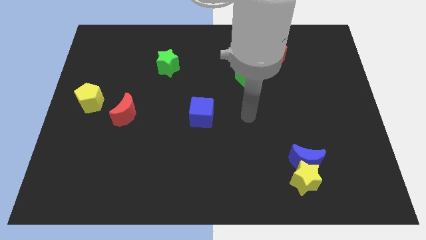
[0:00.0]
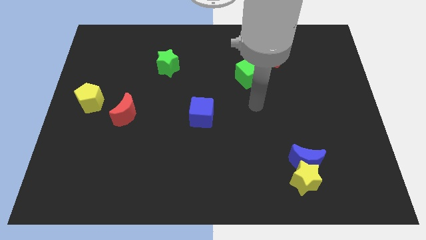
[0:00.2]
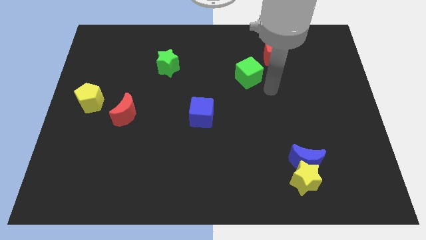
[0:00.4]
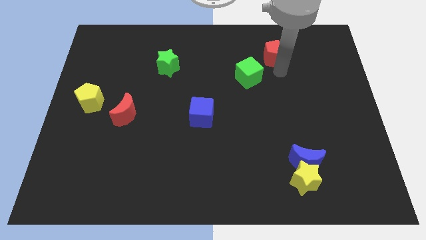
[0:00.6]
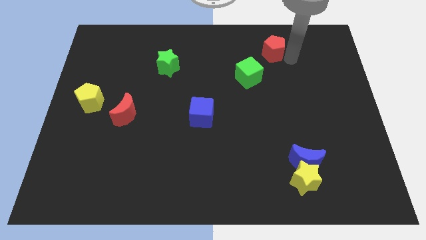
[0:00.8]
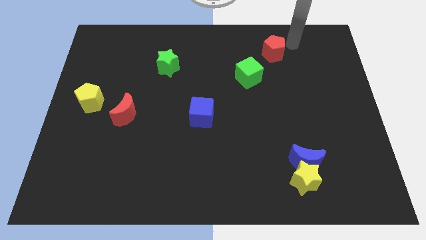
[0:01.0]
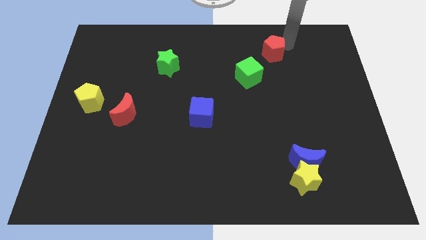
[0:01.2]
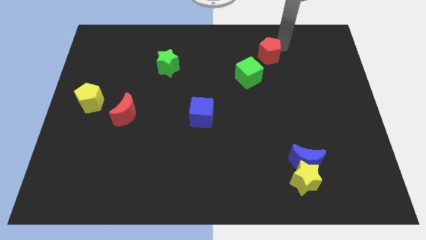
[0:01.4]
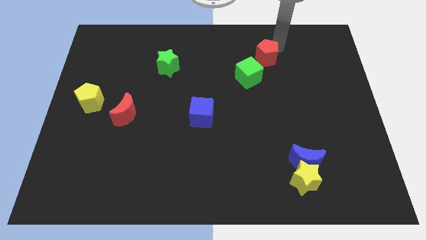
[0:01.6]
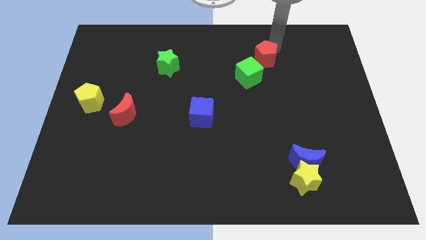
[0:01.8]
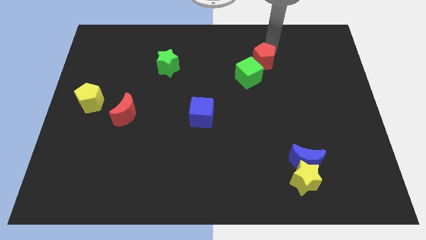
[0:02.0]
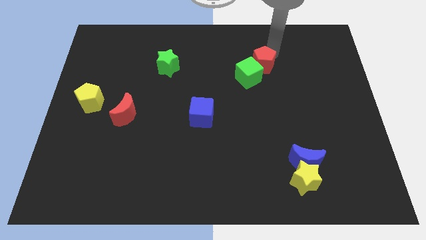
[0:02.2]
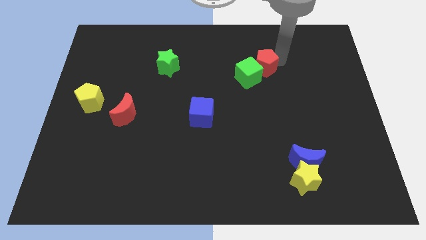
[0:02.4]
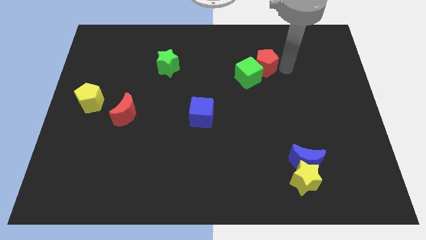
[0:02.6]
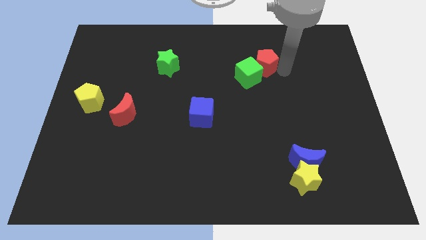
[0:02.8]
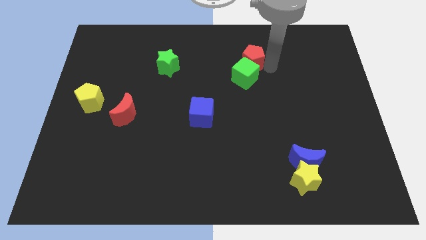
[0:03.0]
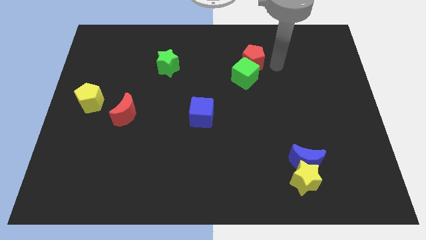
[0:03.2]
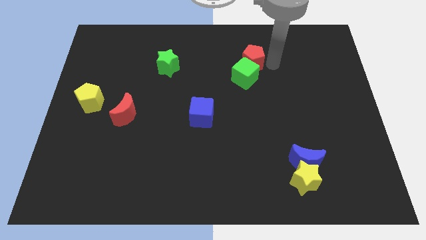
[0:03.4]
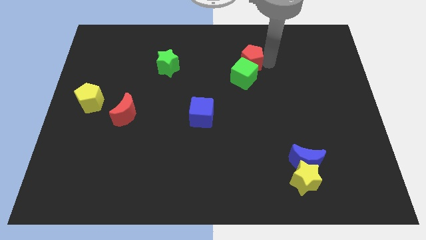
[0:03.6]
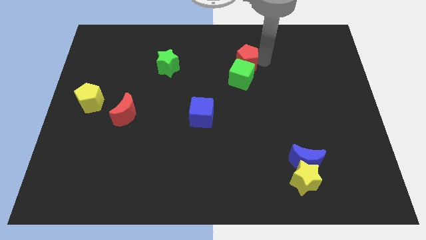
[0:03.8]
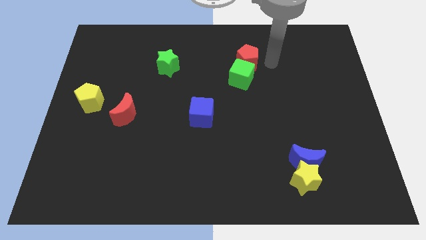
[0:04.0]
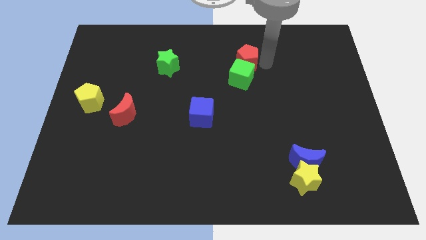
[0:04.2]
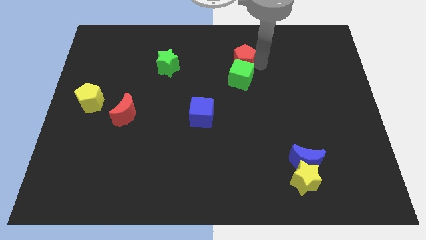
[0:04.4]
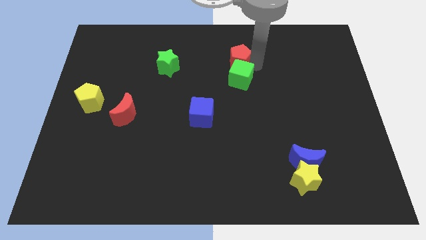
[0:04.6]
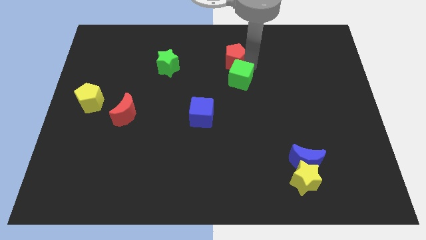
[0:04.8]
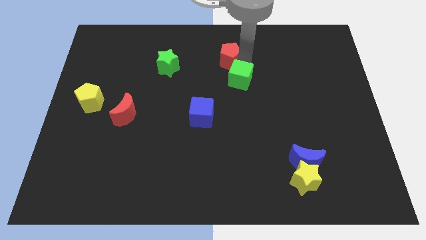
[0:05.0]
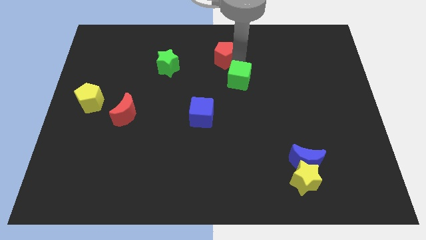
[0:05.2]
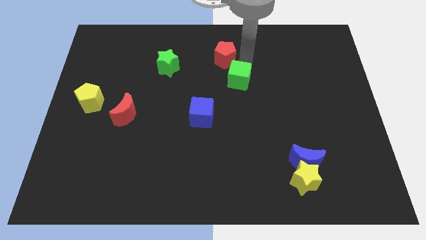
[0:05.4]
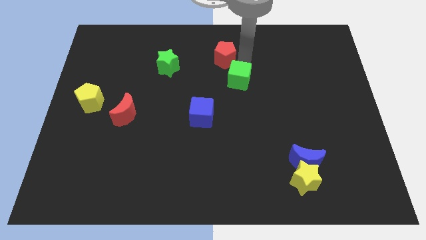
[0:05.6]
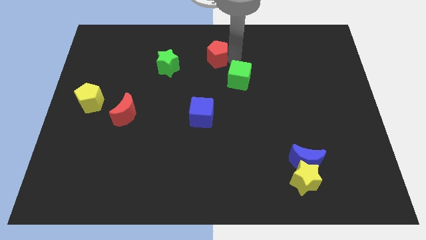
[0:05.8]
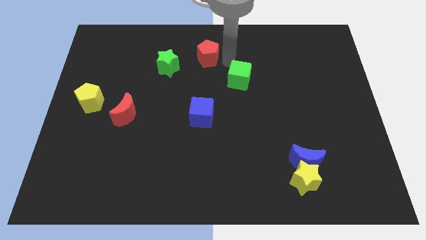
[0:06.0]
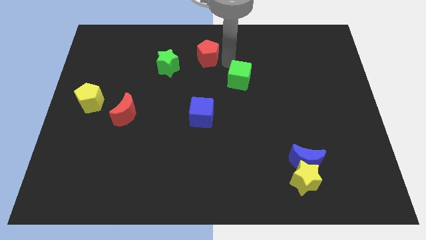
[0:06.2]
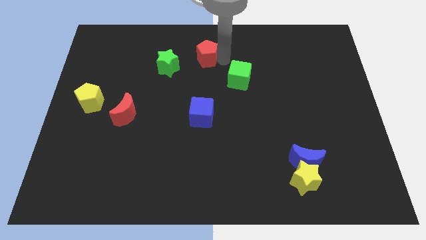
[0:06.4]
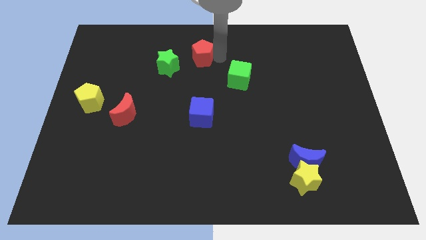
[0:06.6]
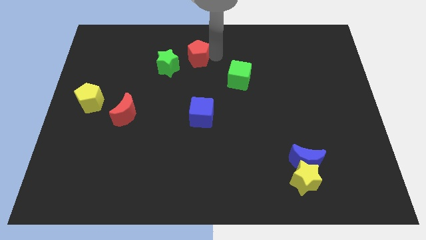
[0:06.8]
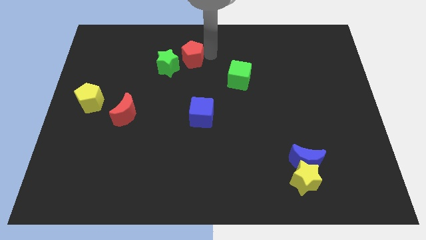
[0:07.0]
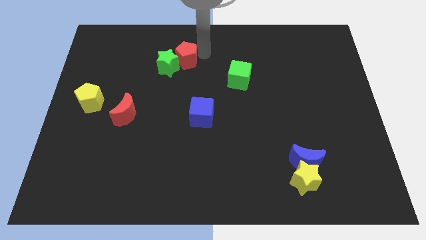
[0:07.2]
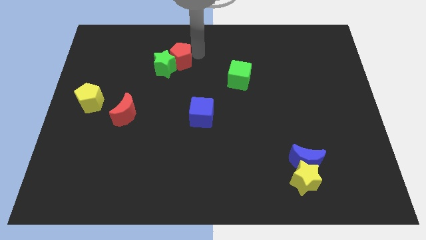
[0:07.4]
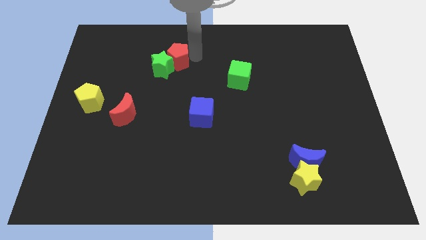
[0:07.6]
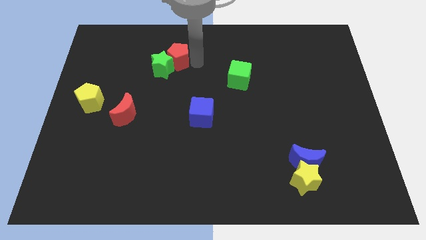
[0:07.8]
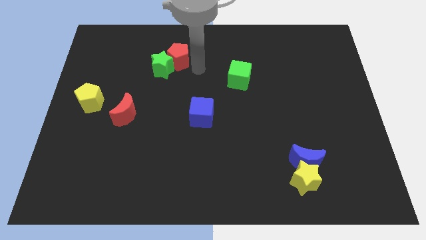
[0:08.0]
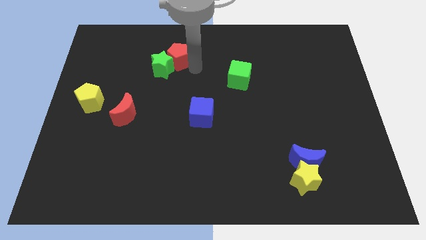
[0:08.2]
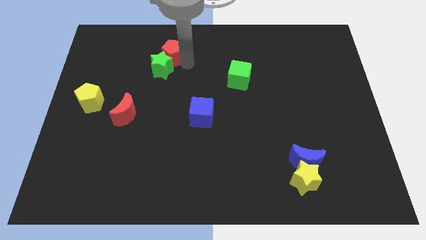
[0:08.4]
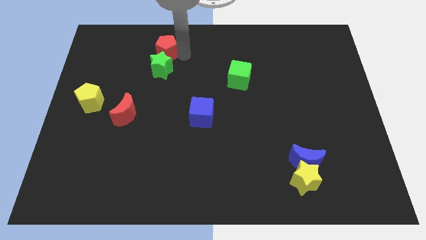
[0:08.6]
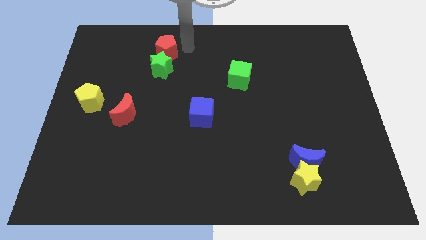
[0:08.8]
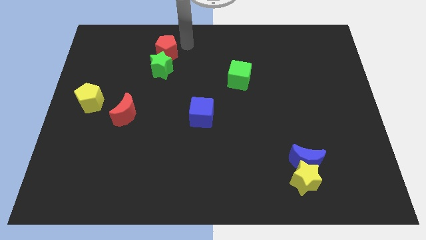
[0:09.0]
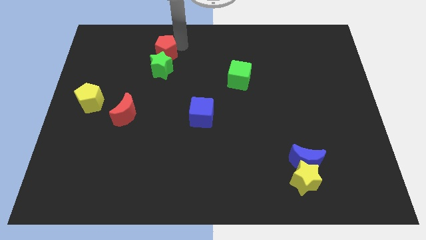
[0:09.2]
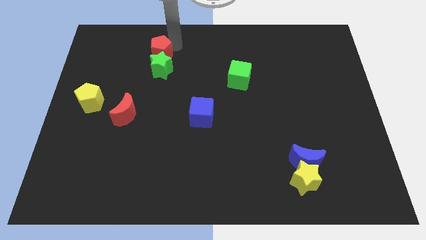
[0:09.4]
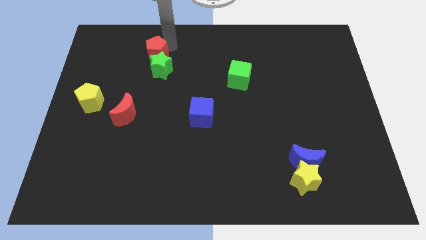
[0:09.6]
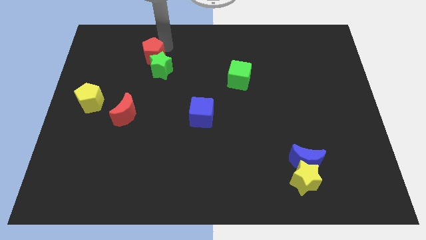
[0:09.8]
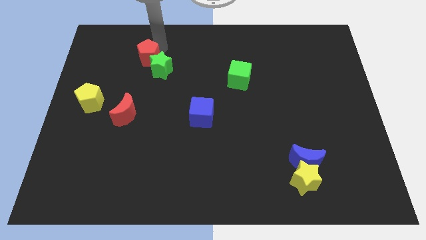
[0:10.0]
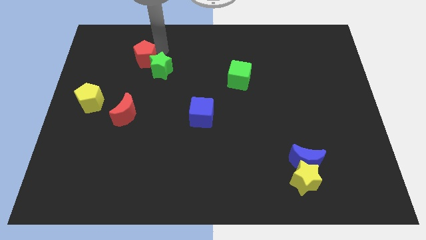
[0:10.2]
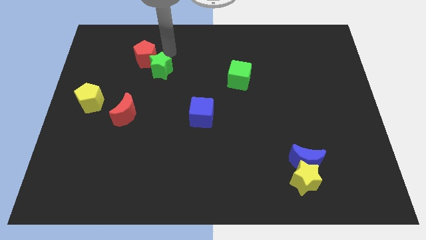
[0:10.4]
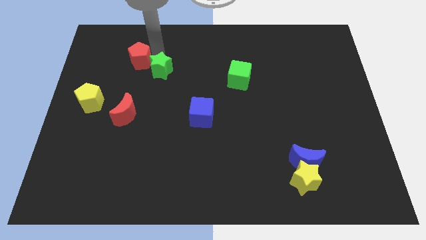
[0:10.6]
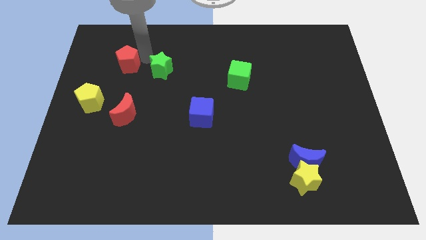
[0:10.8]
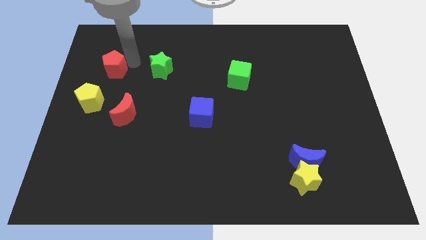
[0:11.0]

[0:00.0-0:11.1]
move the red pentagon to the top side of the yellow pentagon
